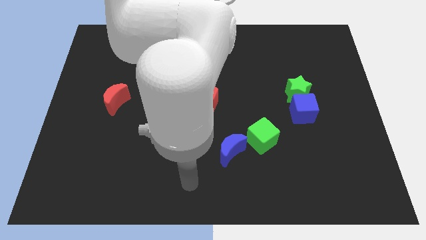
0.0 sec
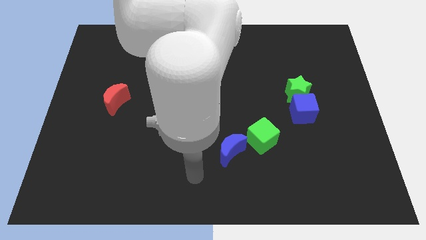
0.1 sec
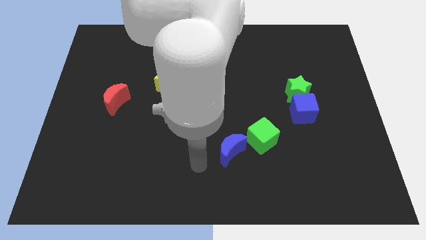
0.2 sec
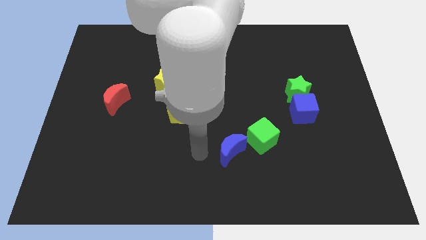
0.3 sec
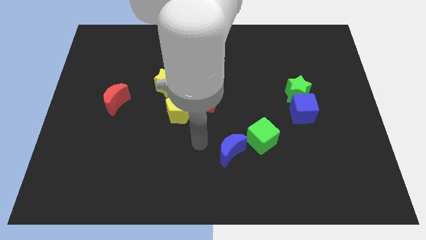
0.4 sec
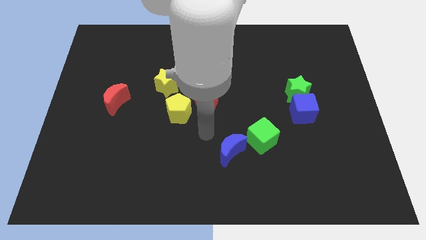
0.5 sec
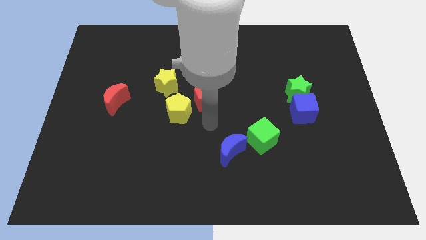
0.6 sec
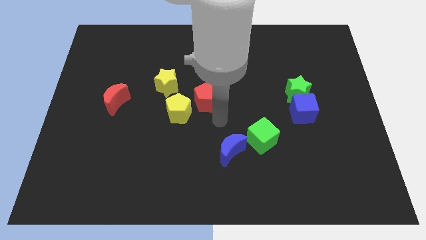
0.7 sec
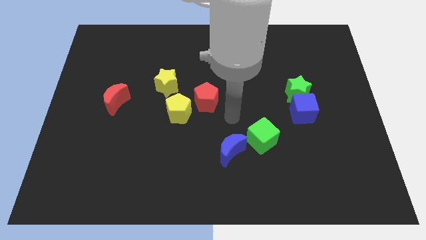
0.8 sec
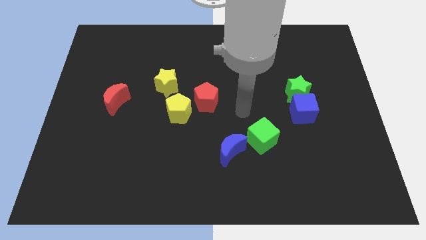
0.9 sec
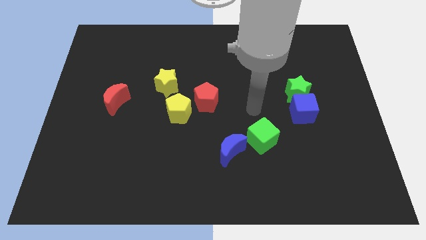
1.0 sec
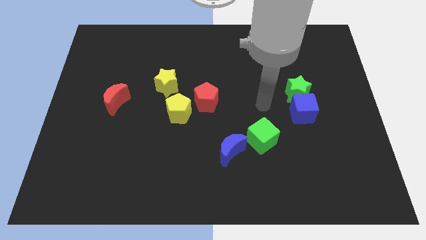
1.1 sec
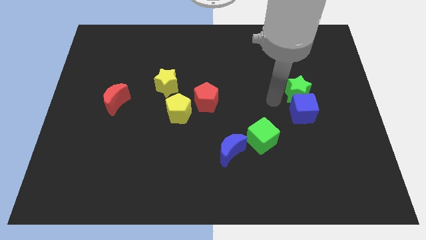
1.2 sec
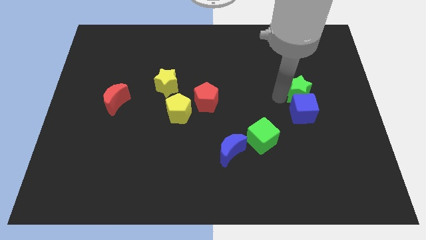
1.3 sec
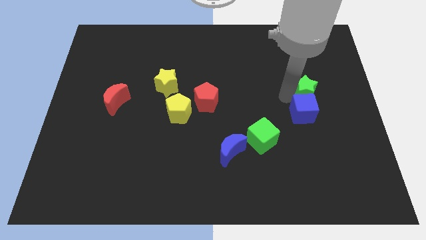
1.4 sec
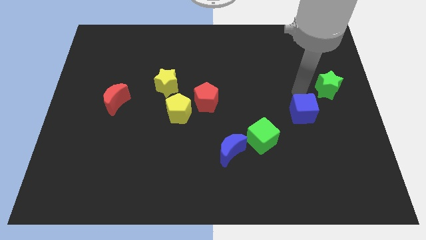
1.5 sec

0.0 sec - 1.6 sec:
pull the blue cube apart from the green star

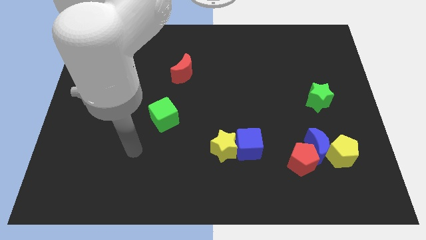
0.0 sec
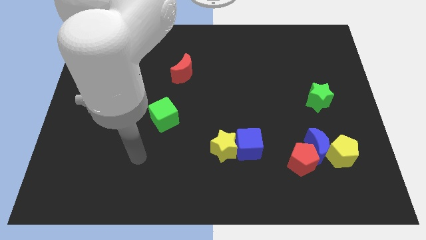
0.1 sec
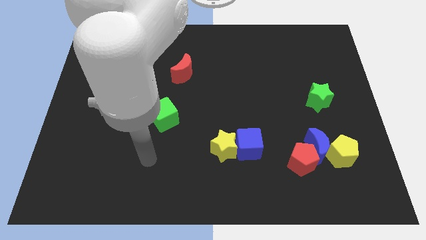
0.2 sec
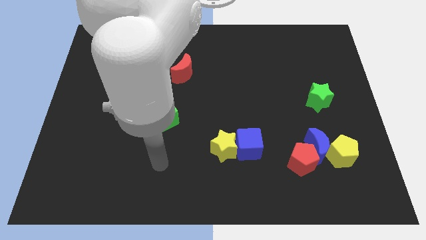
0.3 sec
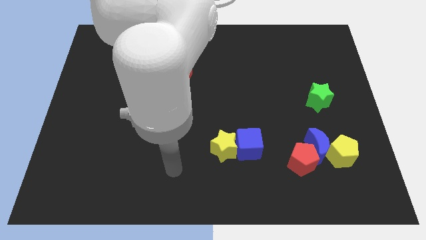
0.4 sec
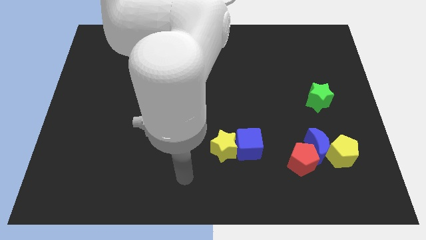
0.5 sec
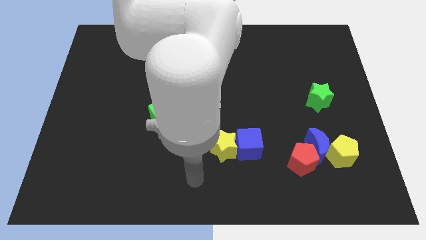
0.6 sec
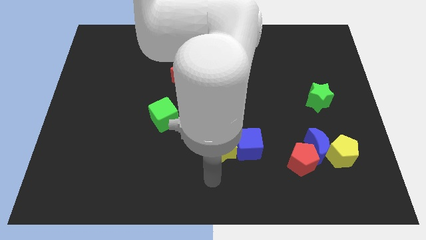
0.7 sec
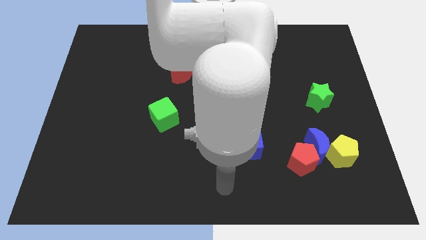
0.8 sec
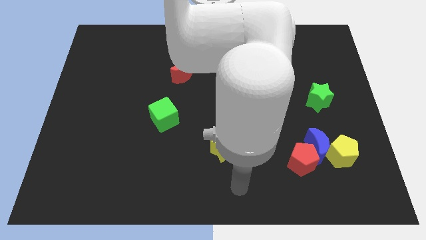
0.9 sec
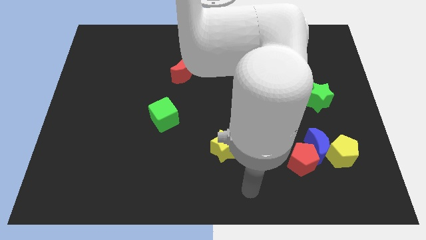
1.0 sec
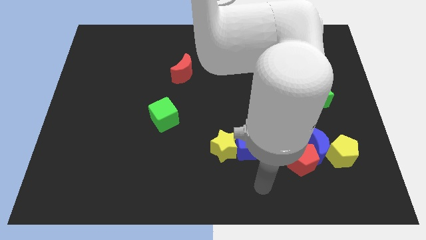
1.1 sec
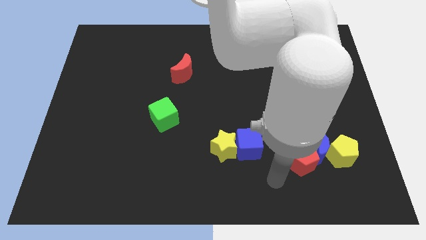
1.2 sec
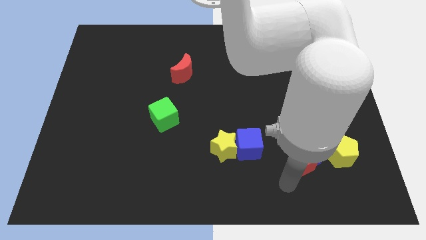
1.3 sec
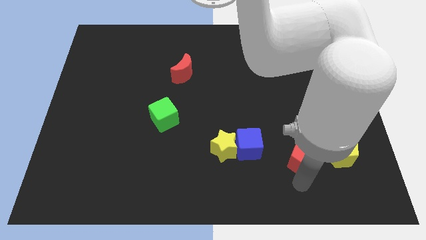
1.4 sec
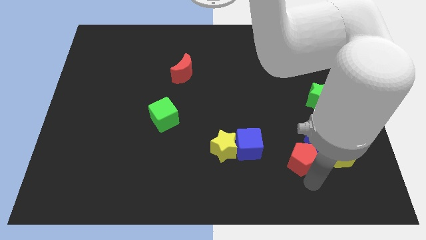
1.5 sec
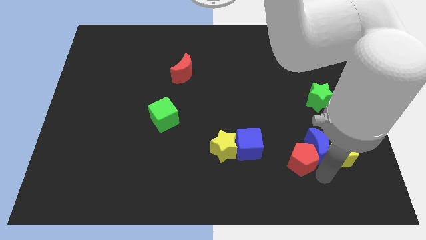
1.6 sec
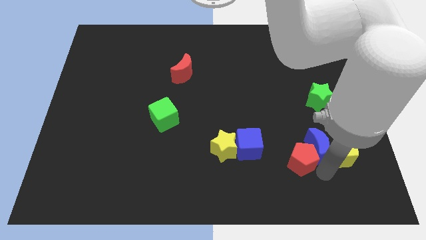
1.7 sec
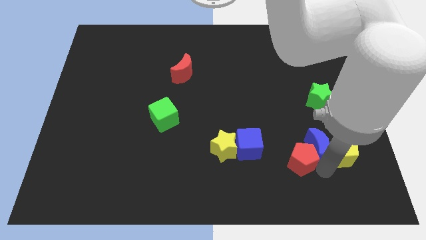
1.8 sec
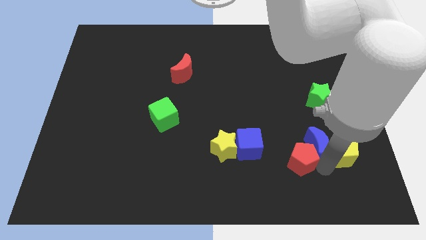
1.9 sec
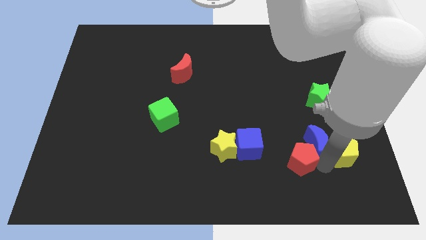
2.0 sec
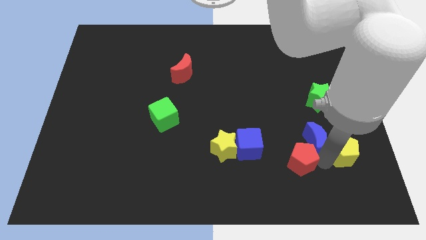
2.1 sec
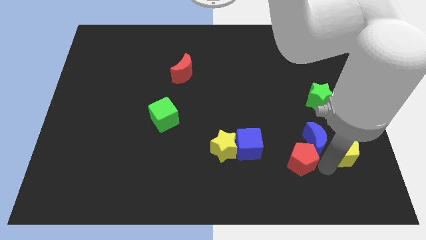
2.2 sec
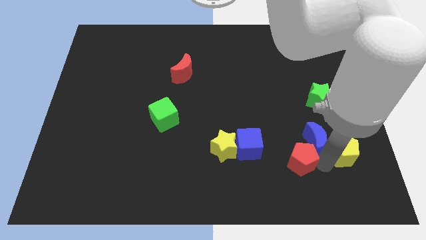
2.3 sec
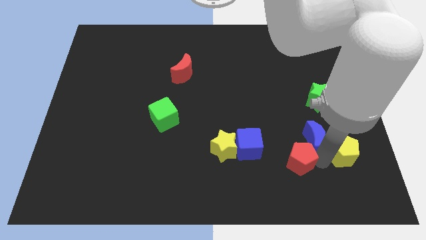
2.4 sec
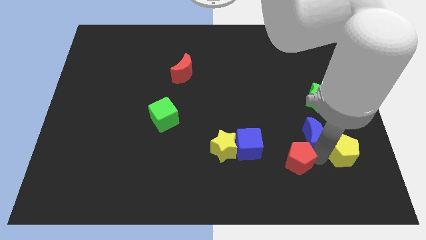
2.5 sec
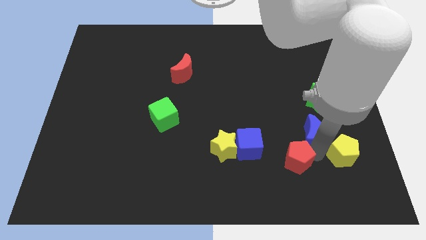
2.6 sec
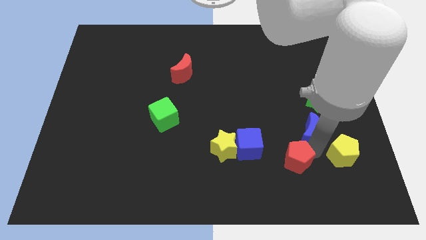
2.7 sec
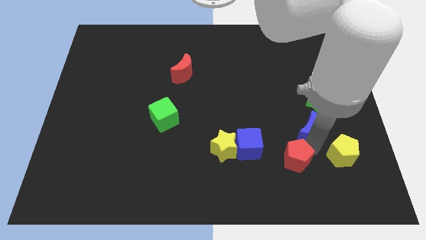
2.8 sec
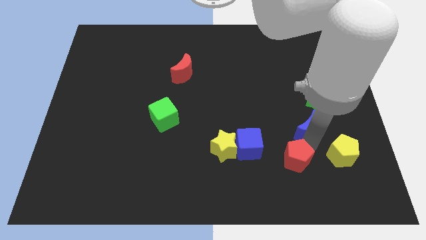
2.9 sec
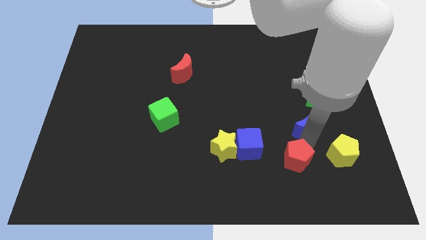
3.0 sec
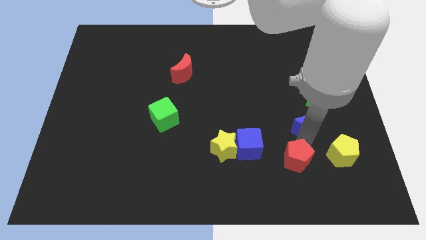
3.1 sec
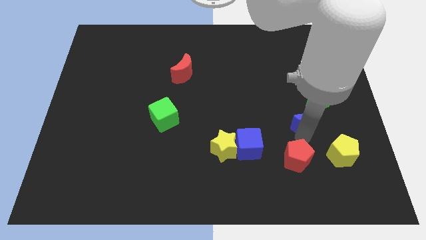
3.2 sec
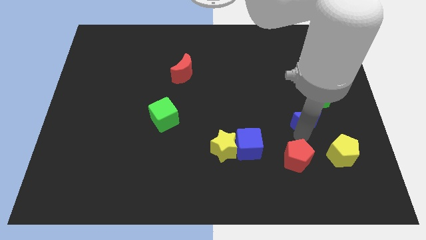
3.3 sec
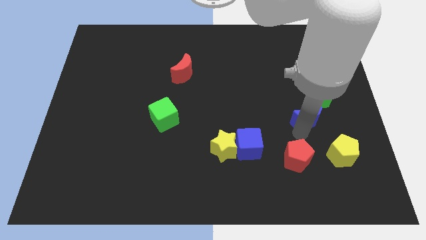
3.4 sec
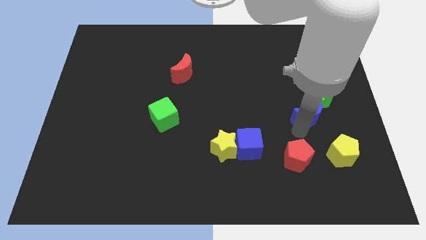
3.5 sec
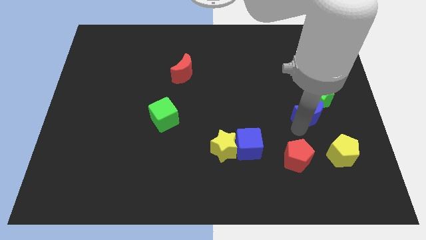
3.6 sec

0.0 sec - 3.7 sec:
move the blue moon away from the red pentagon and yellow pentagon

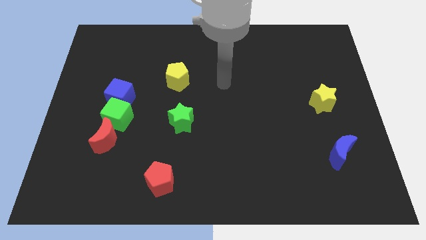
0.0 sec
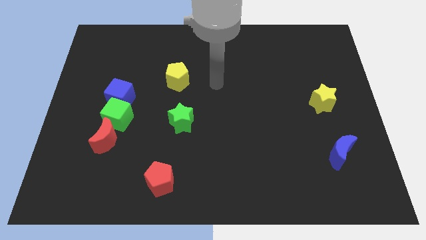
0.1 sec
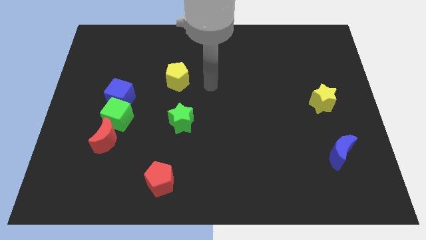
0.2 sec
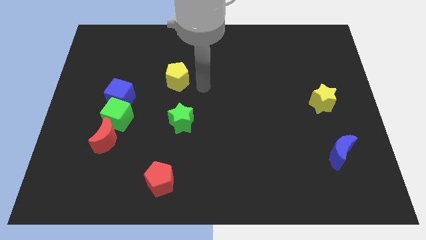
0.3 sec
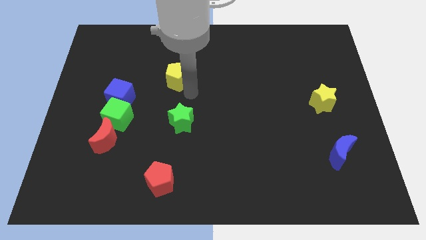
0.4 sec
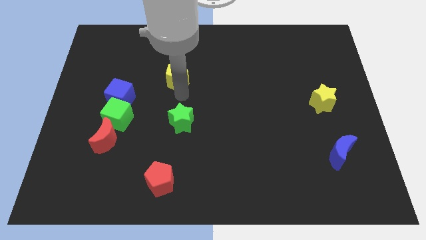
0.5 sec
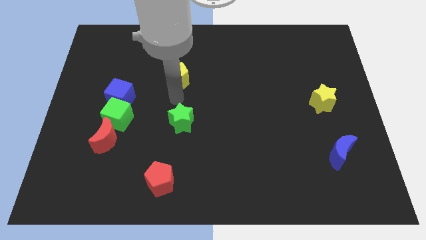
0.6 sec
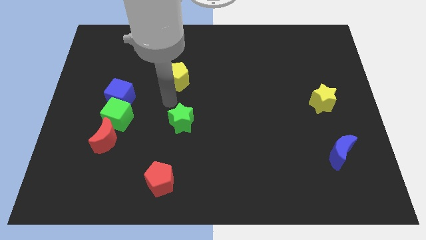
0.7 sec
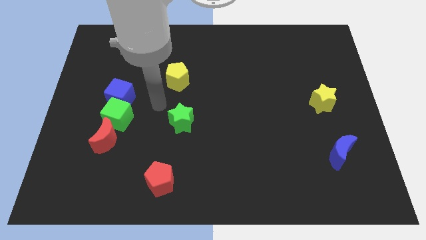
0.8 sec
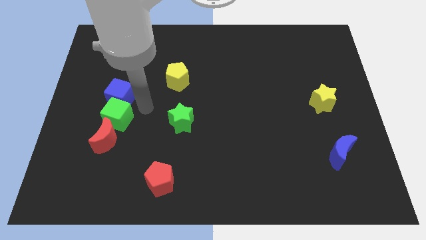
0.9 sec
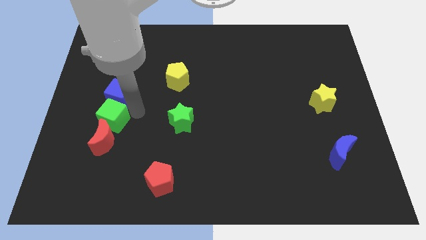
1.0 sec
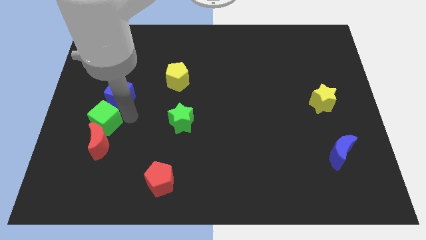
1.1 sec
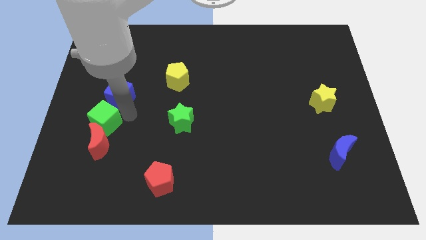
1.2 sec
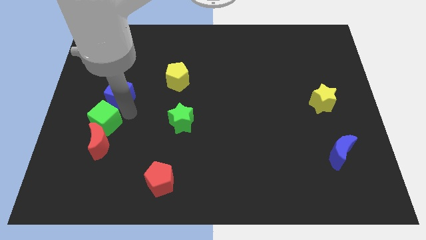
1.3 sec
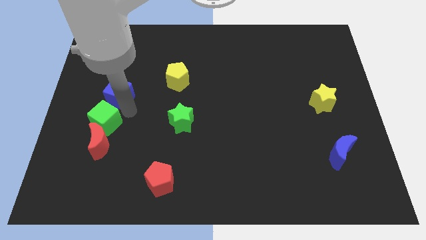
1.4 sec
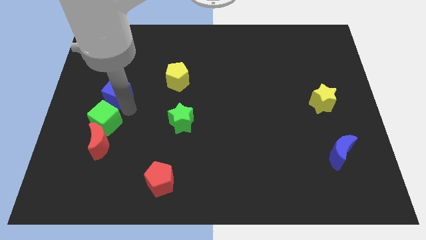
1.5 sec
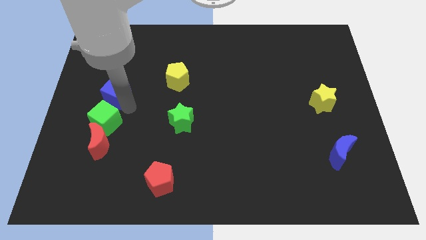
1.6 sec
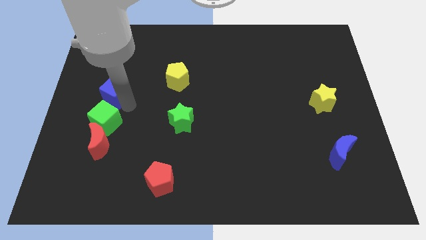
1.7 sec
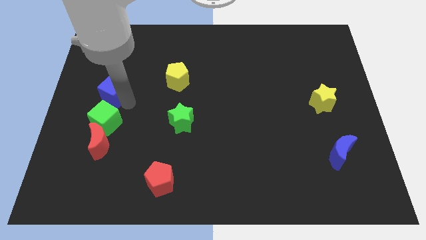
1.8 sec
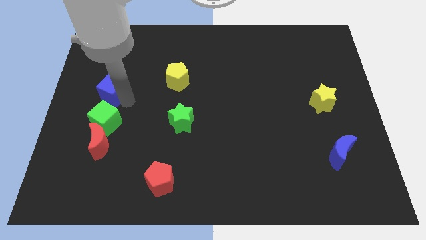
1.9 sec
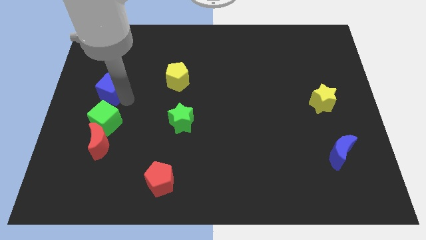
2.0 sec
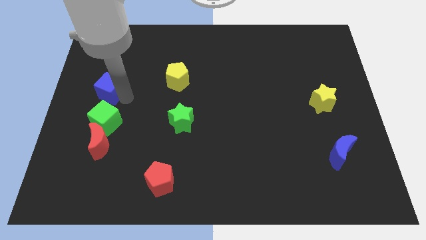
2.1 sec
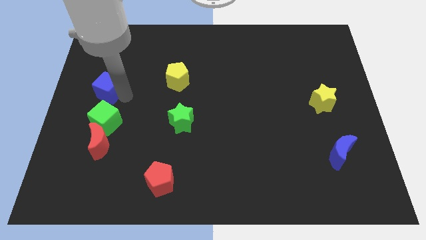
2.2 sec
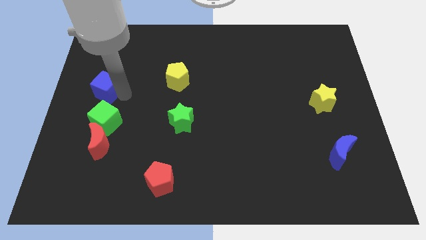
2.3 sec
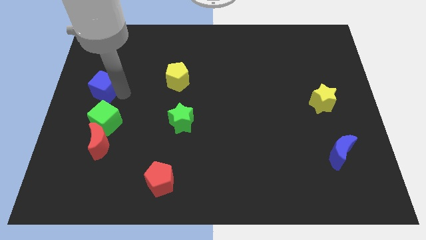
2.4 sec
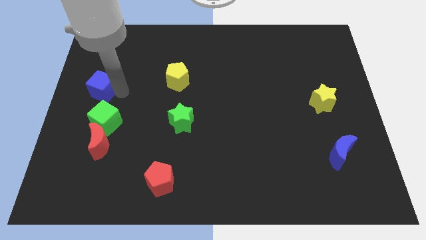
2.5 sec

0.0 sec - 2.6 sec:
move the blue cube away from the green cube

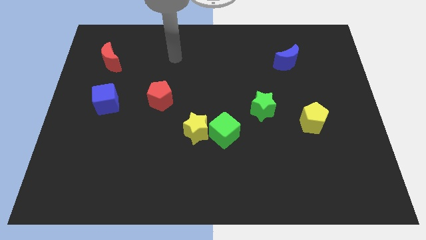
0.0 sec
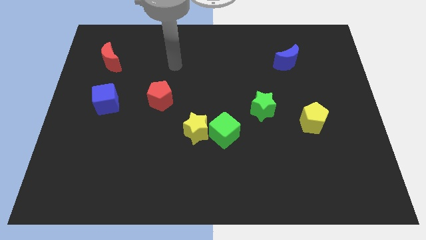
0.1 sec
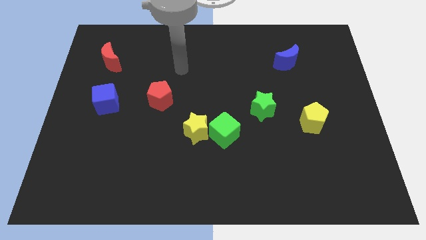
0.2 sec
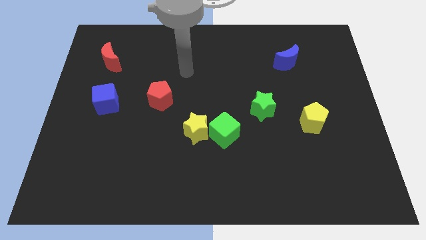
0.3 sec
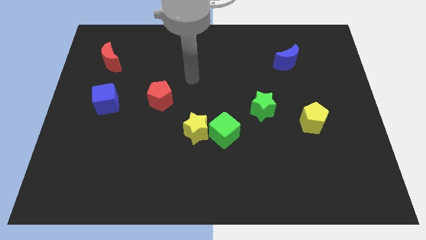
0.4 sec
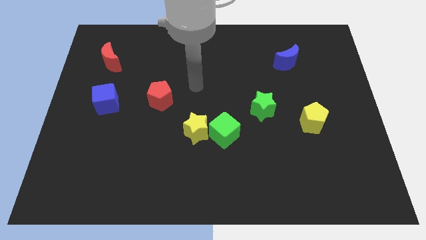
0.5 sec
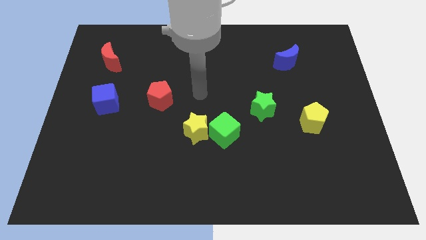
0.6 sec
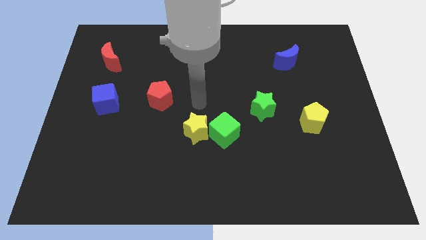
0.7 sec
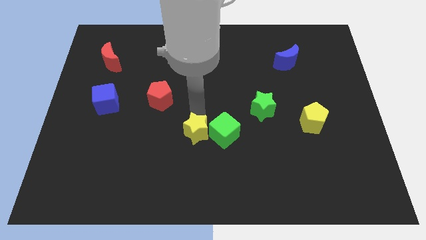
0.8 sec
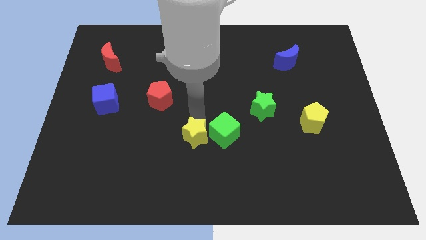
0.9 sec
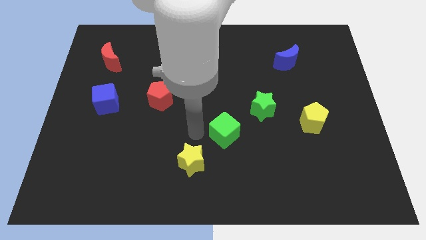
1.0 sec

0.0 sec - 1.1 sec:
move the green cube away from the yellow star

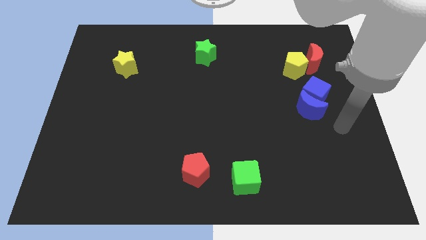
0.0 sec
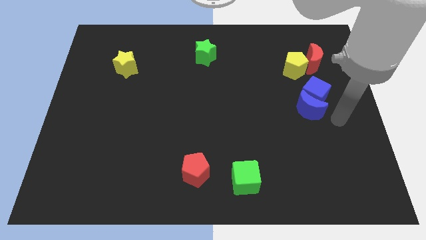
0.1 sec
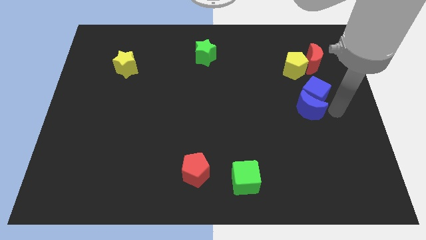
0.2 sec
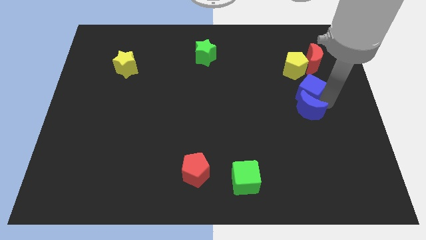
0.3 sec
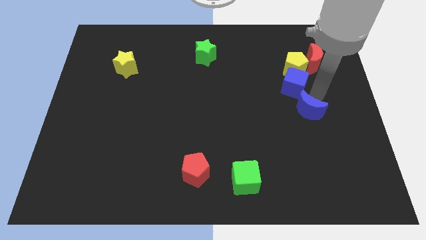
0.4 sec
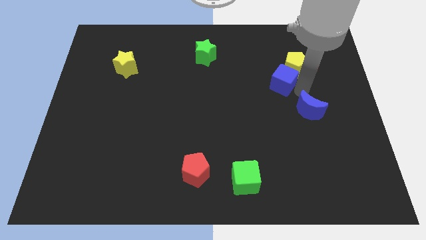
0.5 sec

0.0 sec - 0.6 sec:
move the blue moon away from the blue cube
